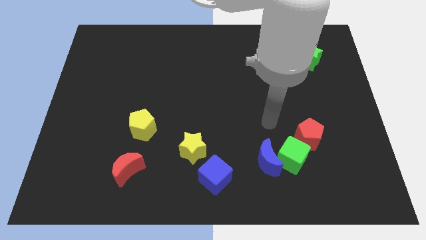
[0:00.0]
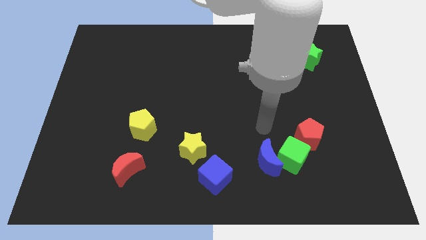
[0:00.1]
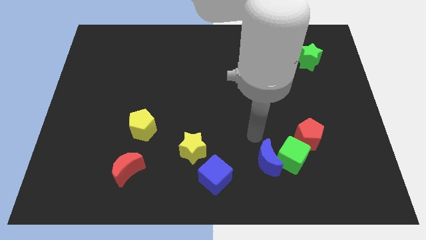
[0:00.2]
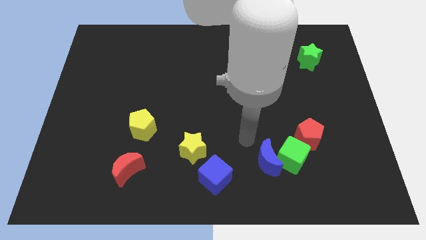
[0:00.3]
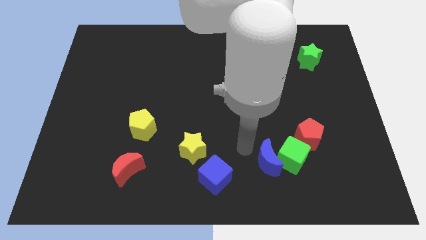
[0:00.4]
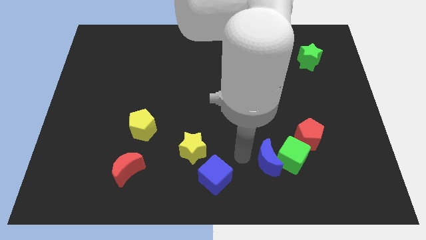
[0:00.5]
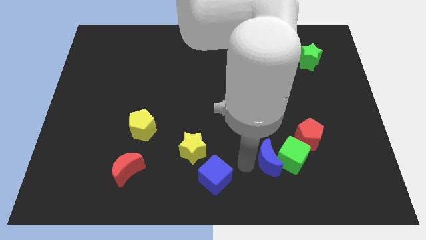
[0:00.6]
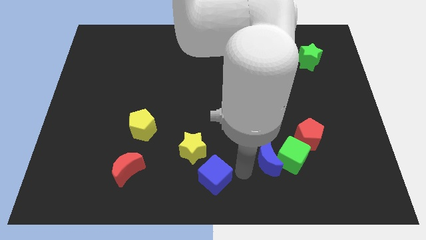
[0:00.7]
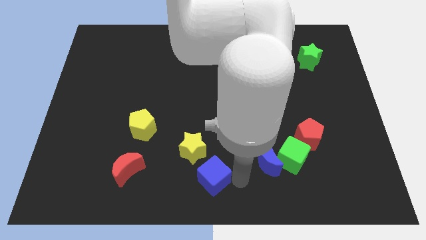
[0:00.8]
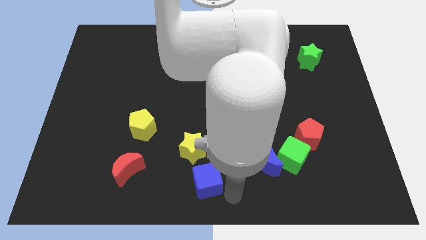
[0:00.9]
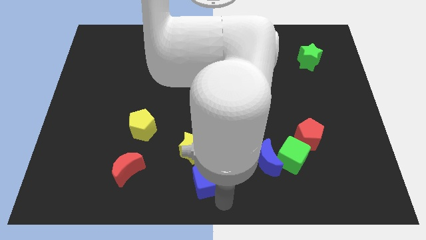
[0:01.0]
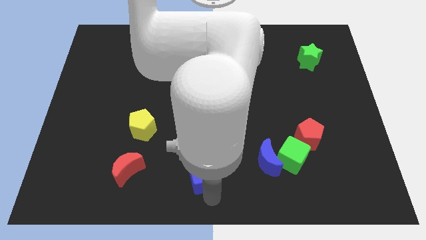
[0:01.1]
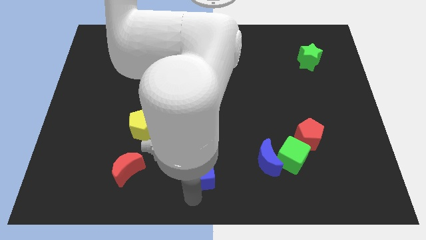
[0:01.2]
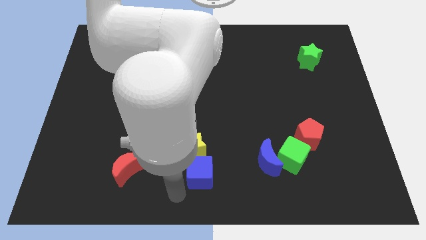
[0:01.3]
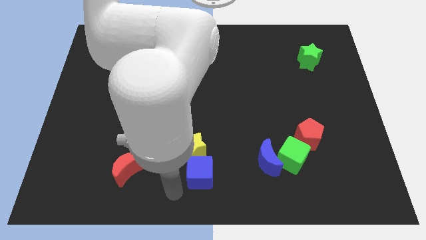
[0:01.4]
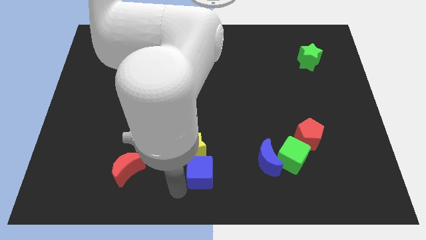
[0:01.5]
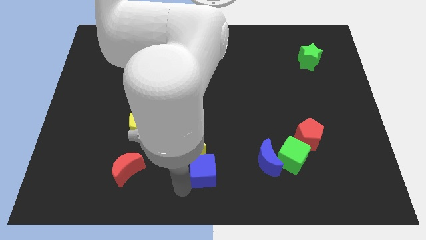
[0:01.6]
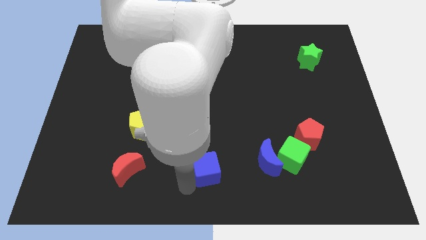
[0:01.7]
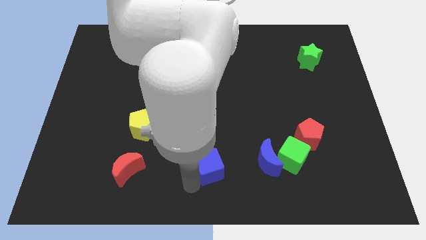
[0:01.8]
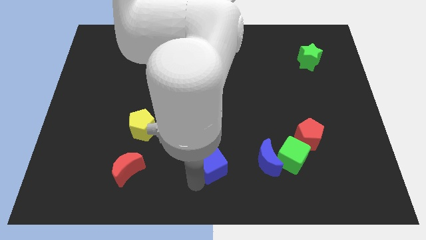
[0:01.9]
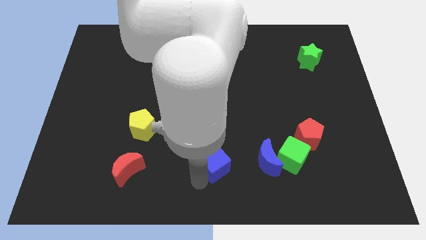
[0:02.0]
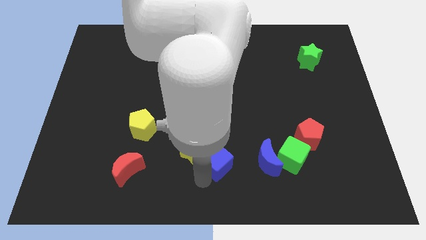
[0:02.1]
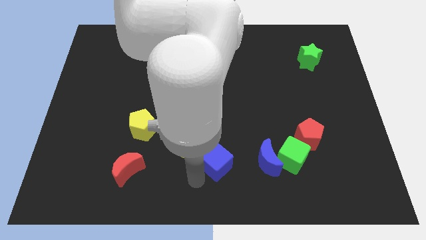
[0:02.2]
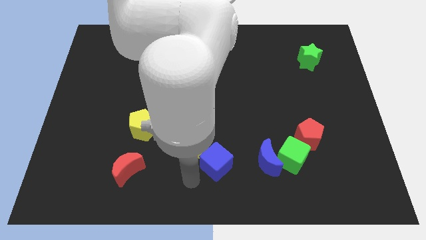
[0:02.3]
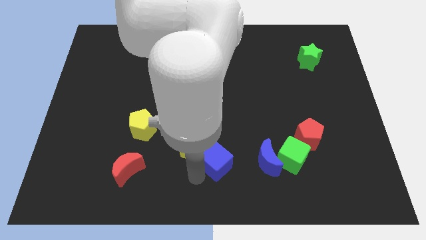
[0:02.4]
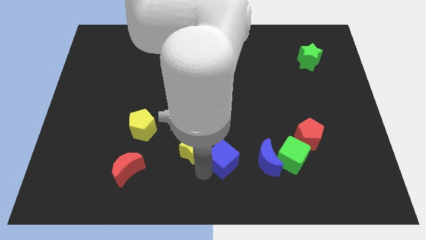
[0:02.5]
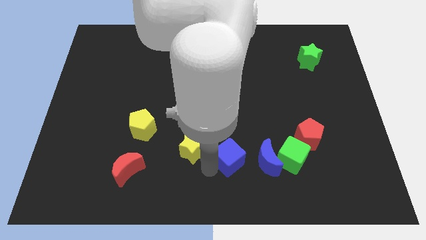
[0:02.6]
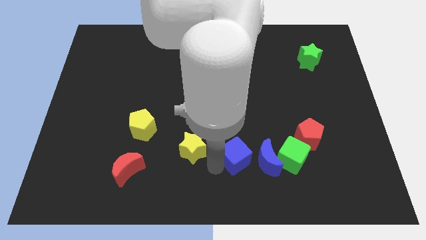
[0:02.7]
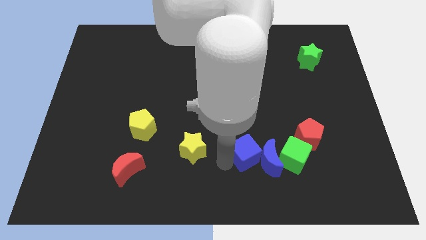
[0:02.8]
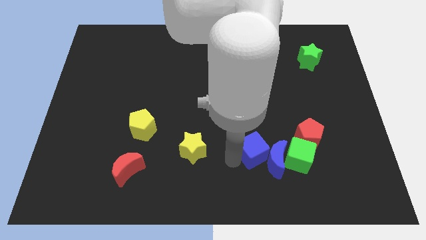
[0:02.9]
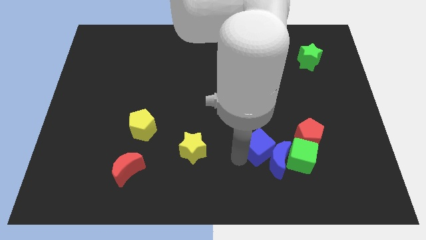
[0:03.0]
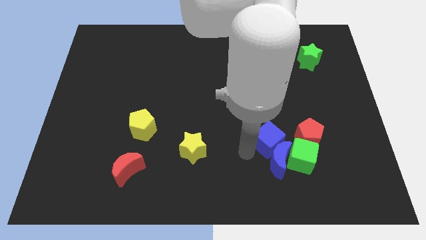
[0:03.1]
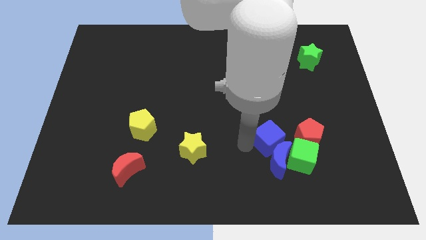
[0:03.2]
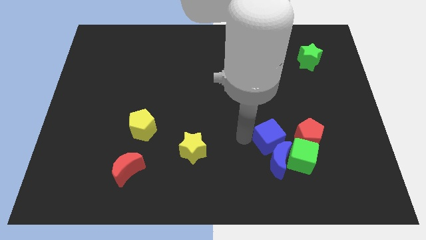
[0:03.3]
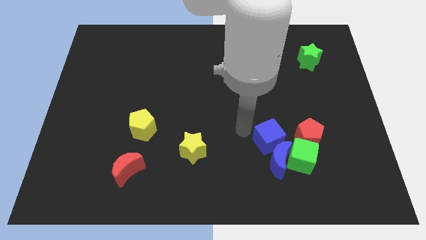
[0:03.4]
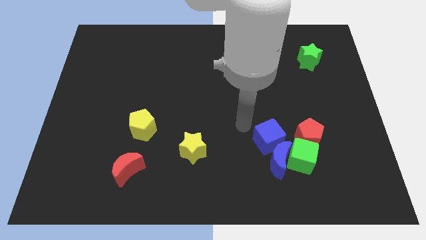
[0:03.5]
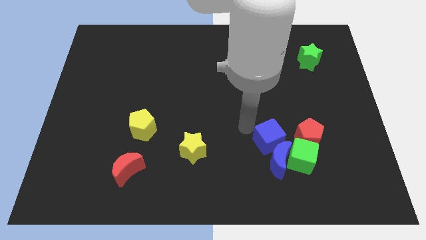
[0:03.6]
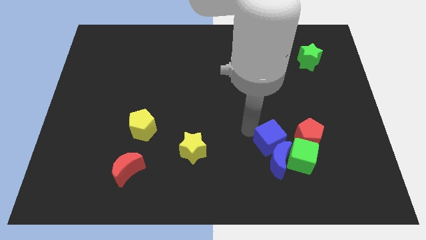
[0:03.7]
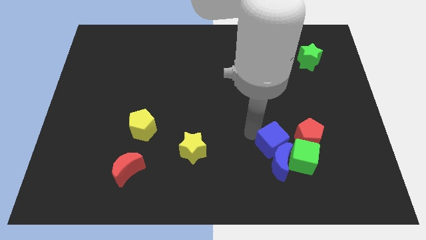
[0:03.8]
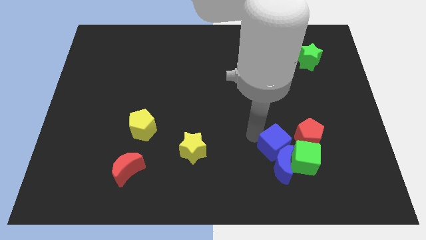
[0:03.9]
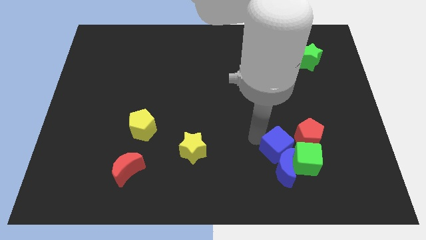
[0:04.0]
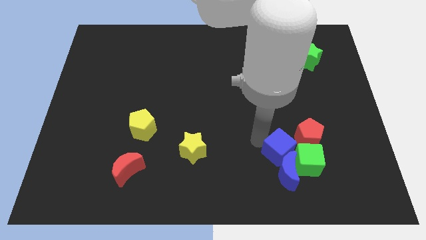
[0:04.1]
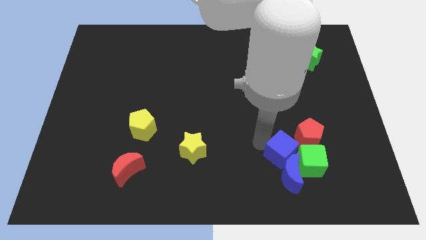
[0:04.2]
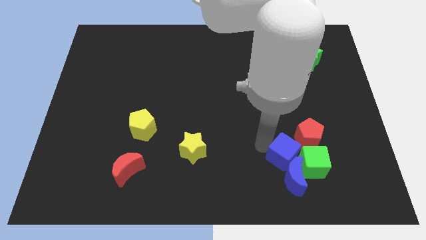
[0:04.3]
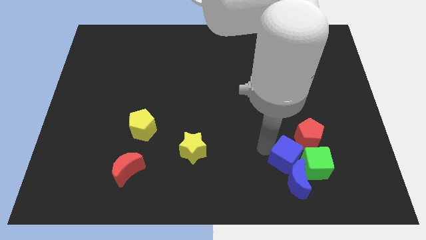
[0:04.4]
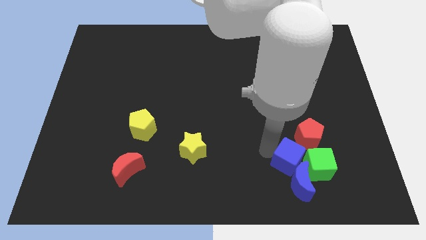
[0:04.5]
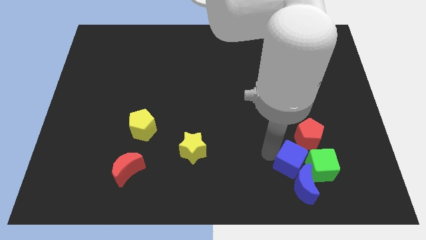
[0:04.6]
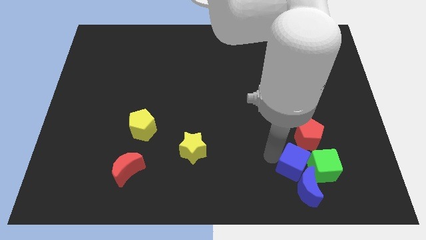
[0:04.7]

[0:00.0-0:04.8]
slide the blue cube to the green cube

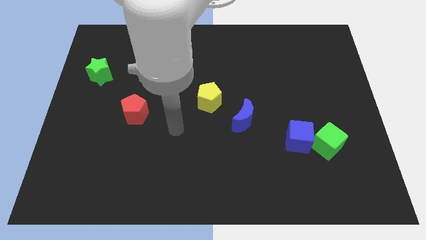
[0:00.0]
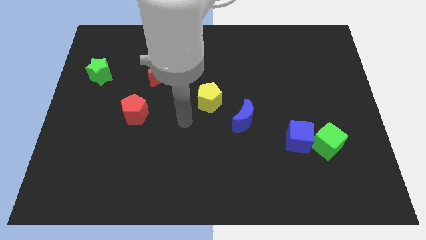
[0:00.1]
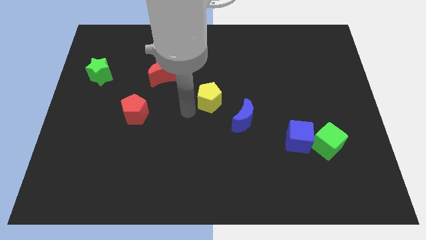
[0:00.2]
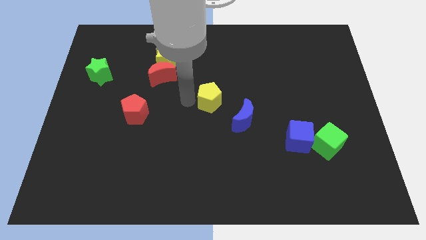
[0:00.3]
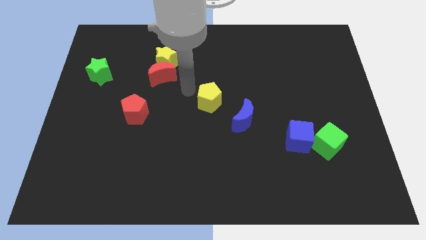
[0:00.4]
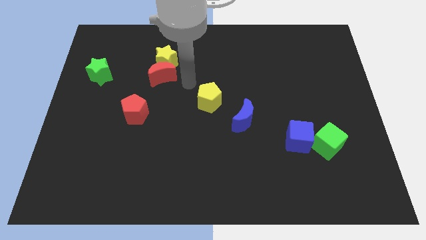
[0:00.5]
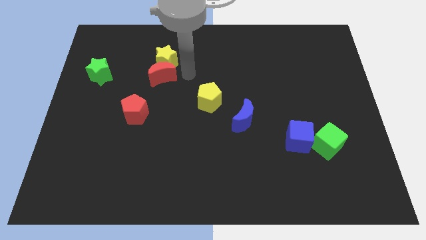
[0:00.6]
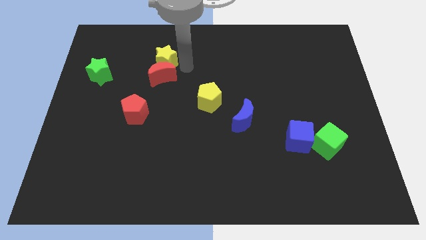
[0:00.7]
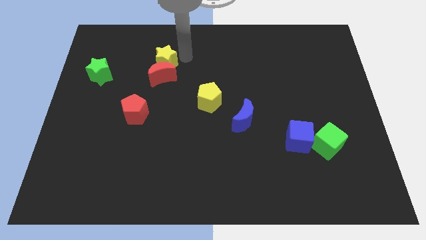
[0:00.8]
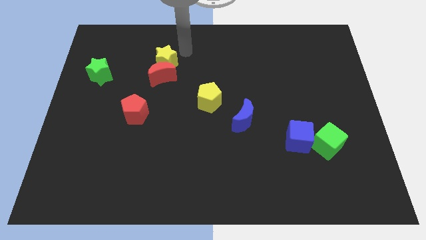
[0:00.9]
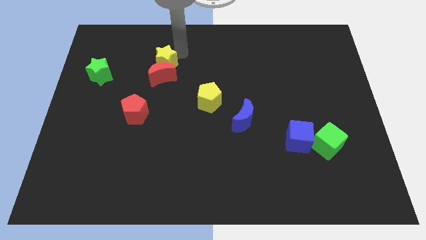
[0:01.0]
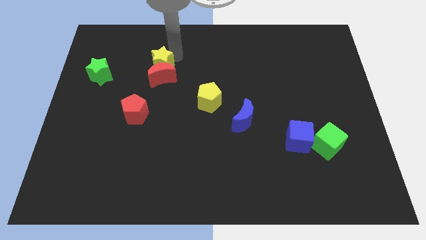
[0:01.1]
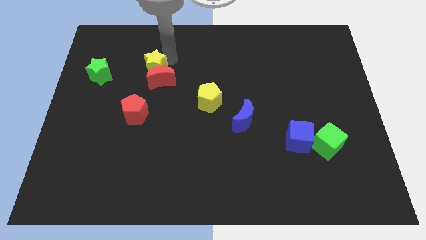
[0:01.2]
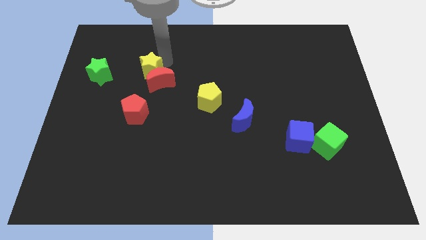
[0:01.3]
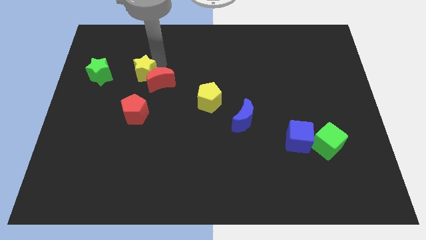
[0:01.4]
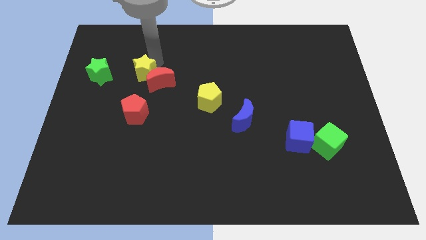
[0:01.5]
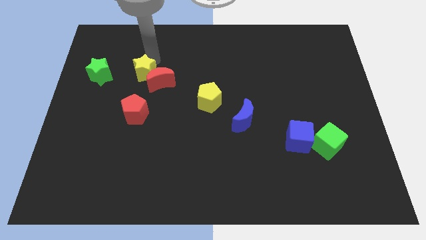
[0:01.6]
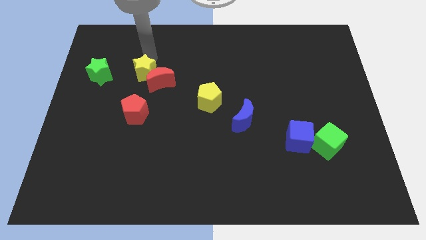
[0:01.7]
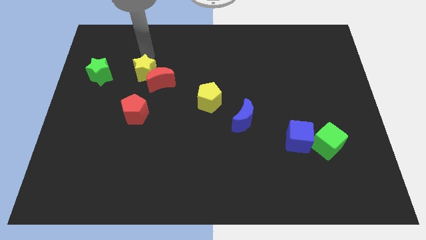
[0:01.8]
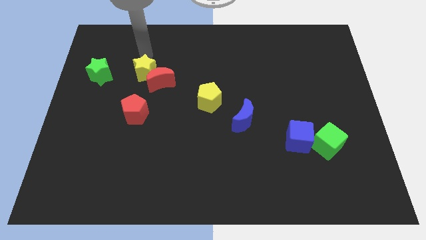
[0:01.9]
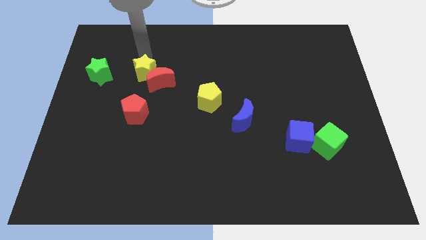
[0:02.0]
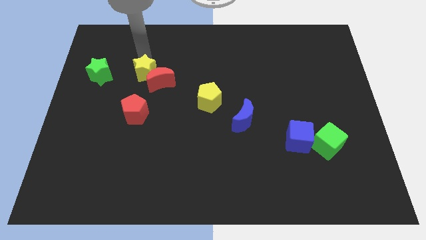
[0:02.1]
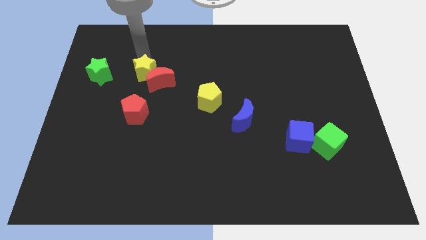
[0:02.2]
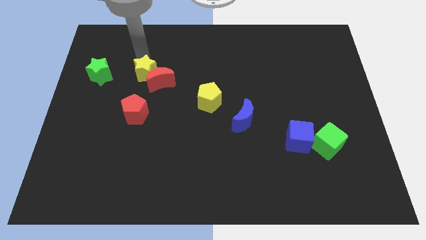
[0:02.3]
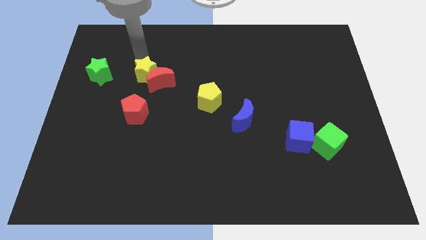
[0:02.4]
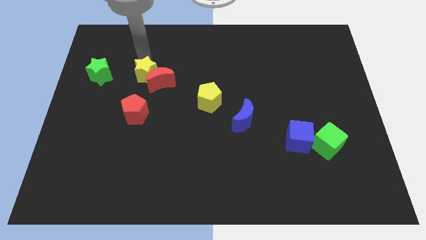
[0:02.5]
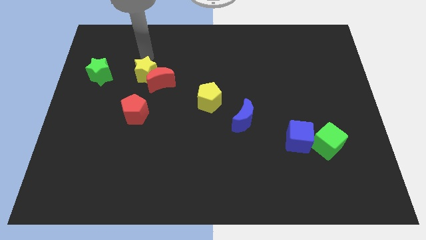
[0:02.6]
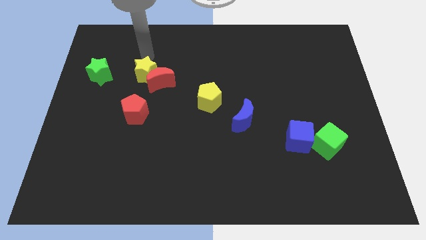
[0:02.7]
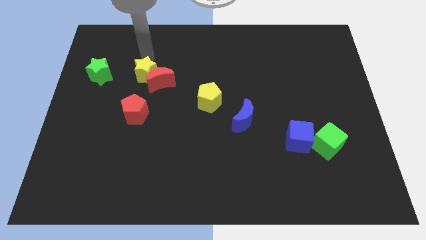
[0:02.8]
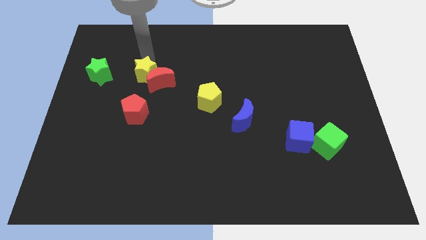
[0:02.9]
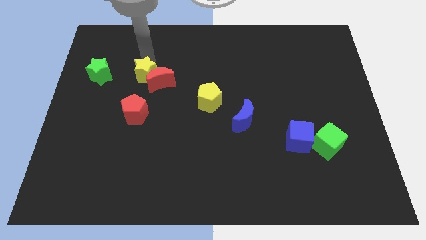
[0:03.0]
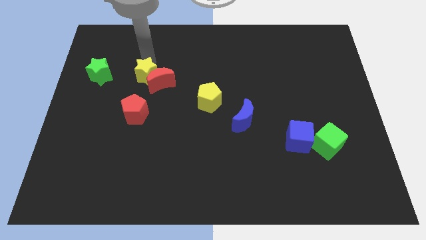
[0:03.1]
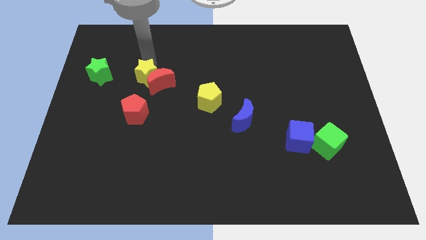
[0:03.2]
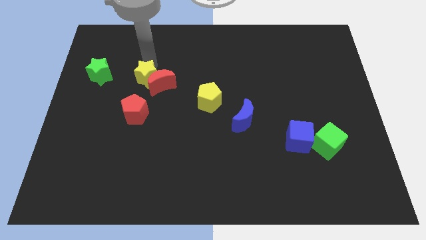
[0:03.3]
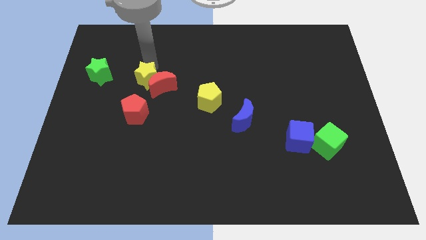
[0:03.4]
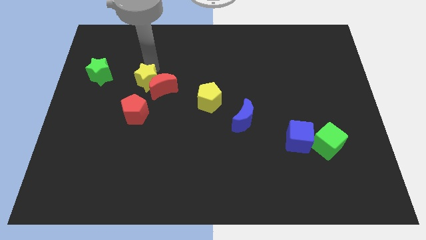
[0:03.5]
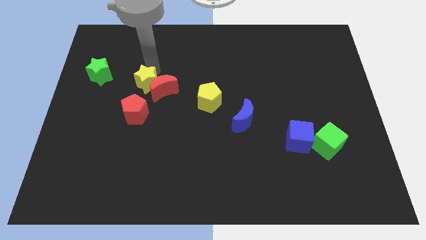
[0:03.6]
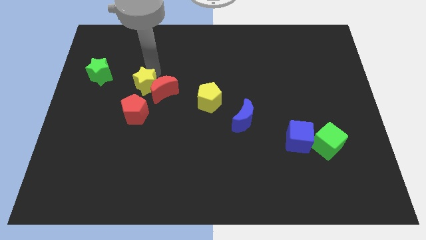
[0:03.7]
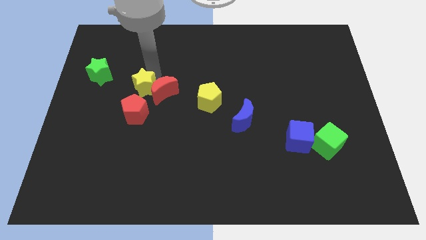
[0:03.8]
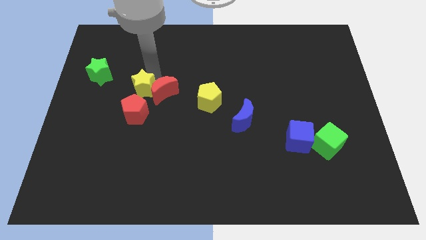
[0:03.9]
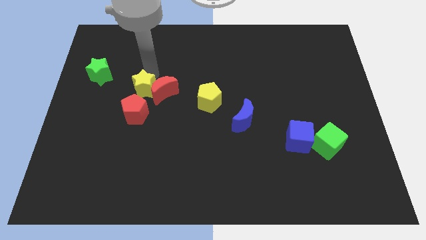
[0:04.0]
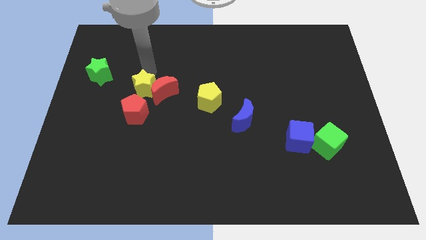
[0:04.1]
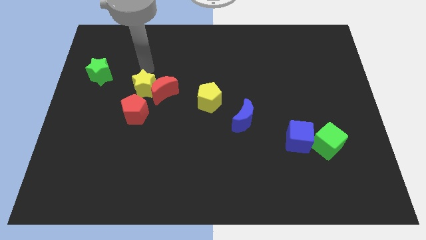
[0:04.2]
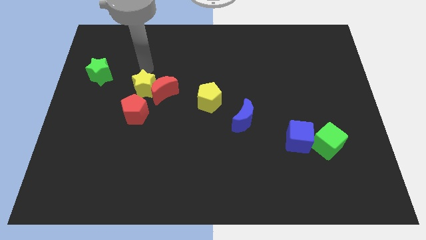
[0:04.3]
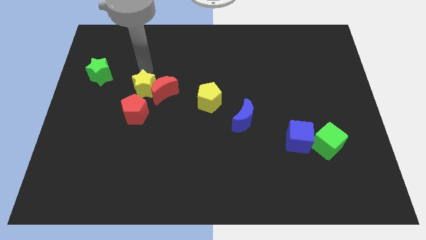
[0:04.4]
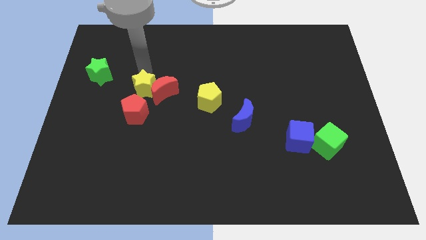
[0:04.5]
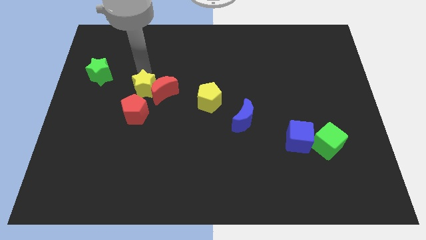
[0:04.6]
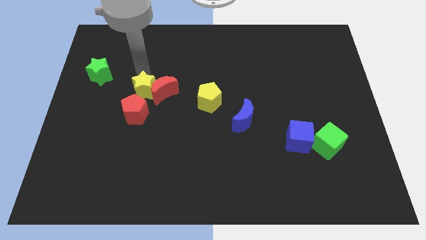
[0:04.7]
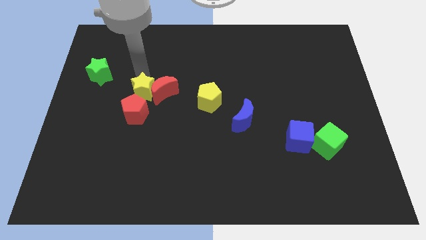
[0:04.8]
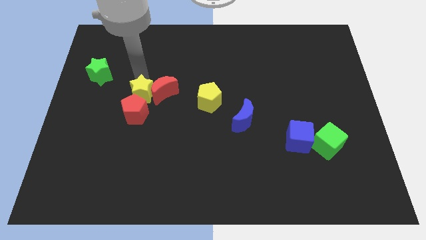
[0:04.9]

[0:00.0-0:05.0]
push the yellow star next to the red pentagon
